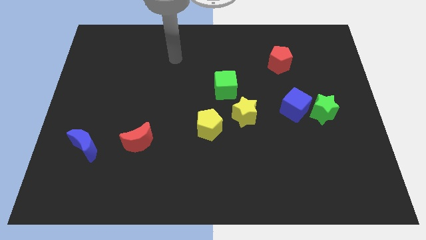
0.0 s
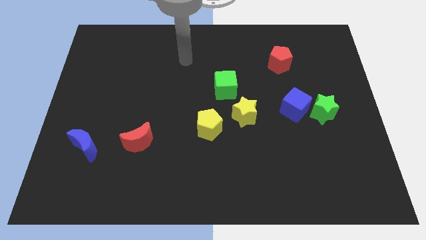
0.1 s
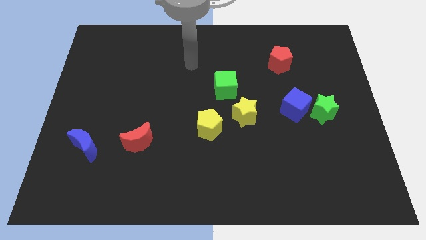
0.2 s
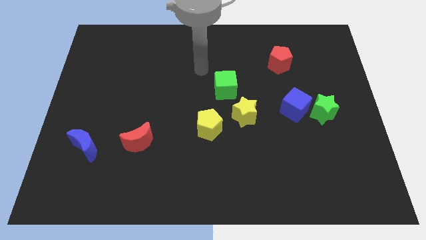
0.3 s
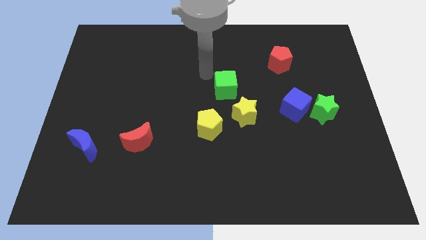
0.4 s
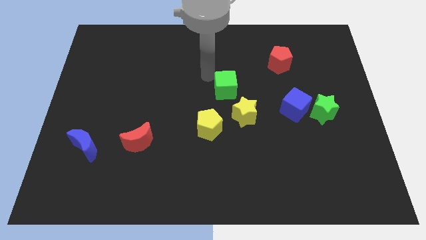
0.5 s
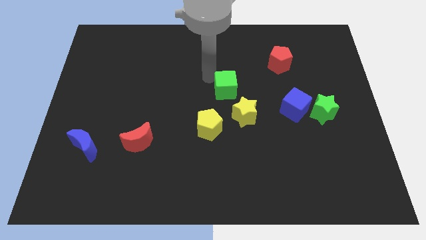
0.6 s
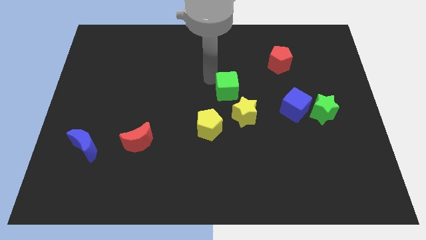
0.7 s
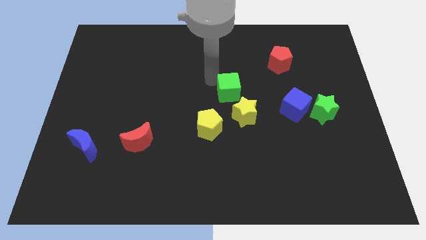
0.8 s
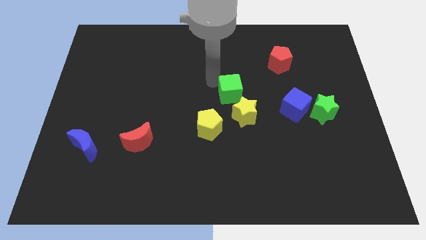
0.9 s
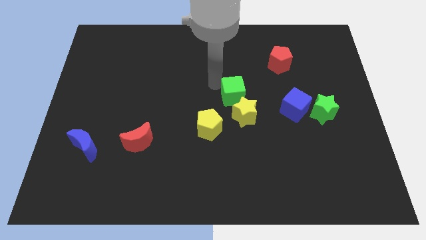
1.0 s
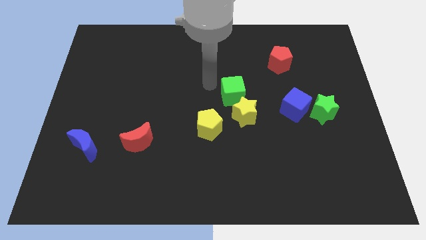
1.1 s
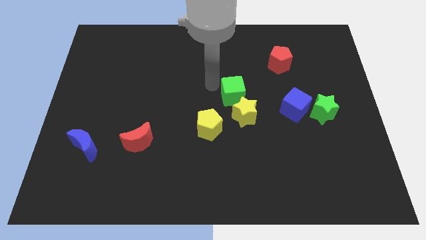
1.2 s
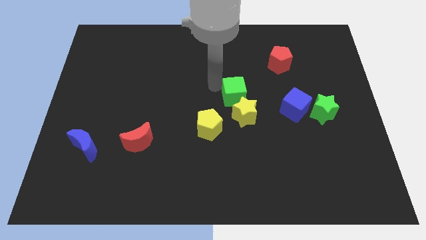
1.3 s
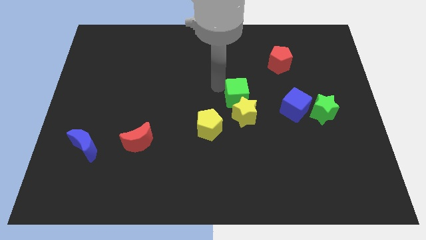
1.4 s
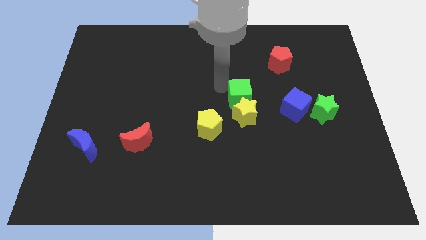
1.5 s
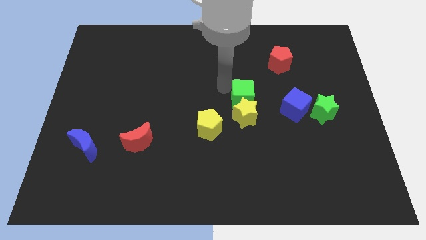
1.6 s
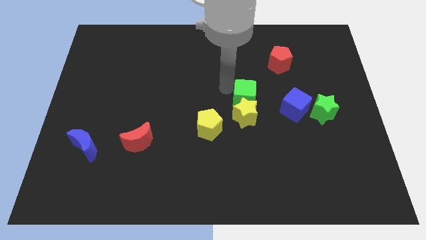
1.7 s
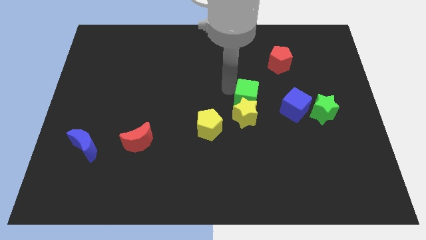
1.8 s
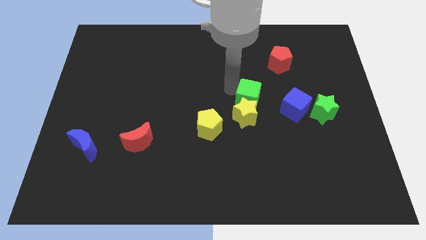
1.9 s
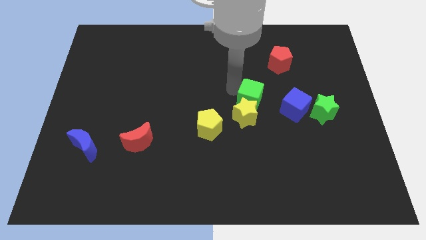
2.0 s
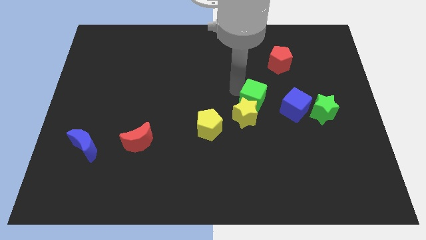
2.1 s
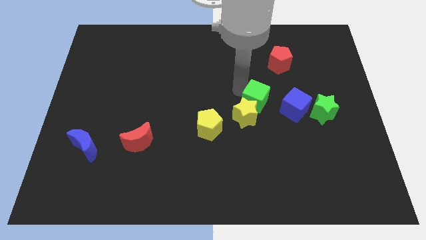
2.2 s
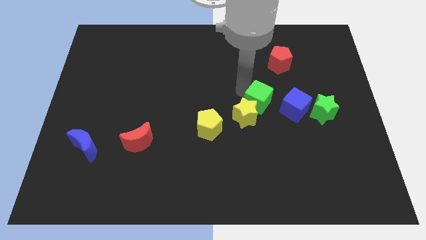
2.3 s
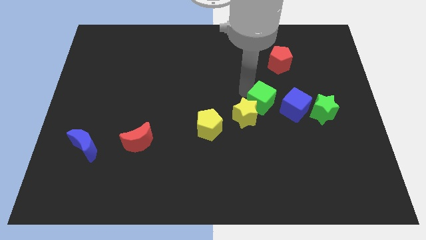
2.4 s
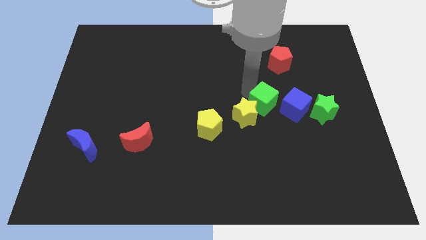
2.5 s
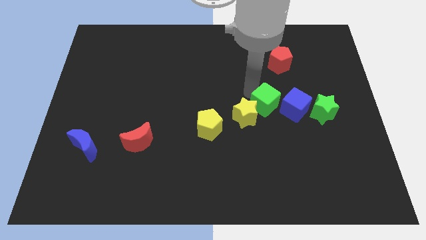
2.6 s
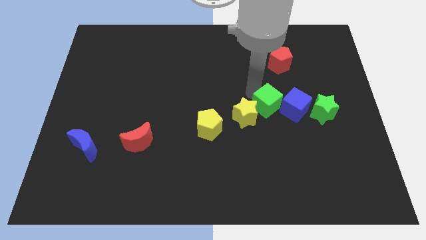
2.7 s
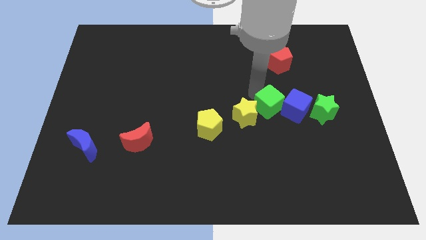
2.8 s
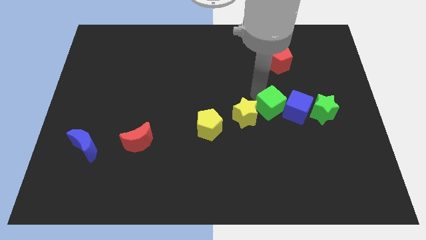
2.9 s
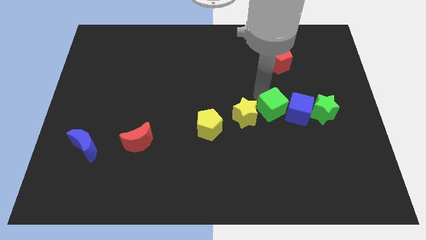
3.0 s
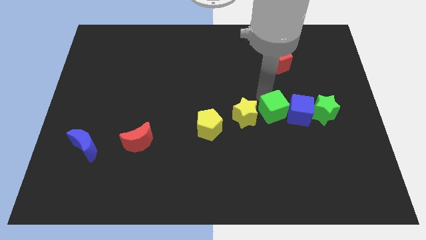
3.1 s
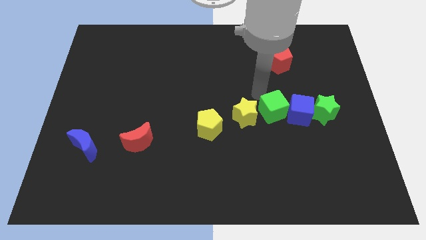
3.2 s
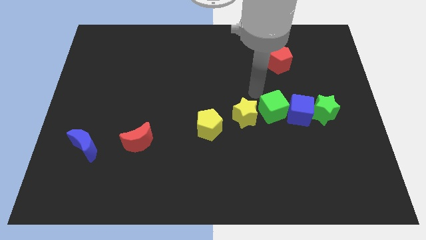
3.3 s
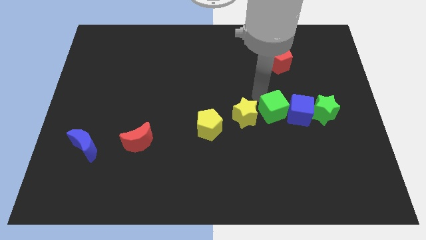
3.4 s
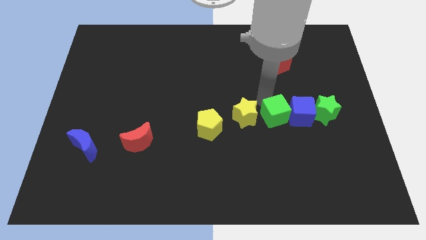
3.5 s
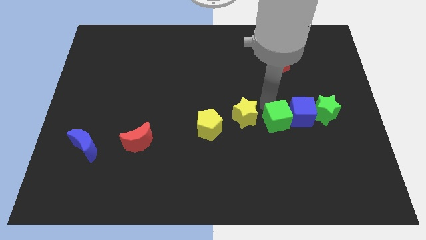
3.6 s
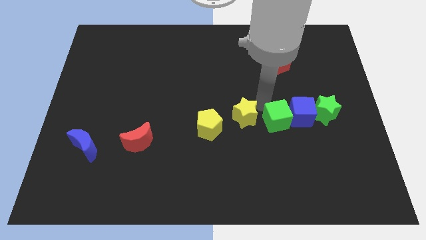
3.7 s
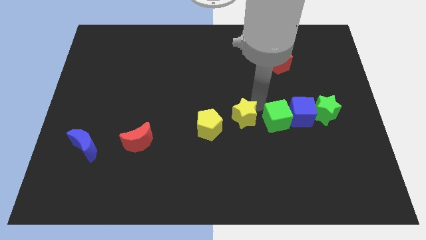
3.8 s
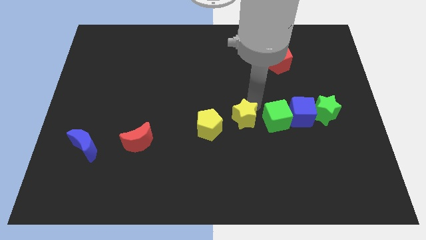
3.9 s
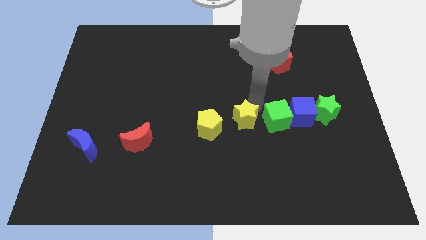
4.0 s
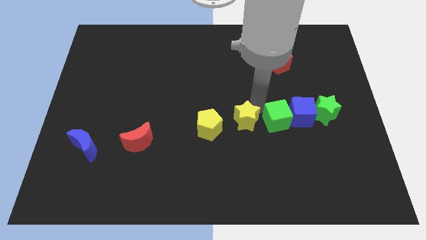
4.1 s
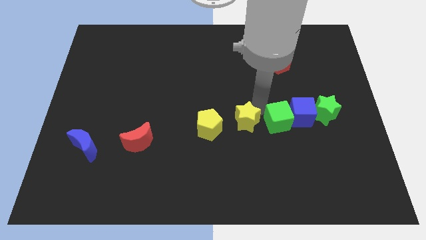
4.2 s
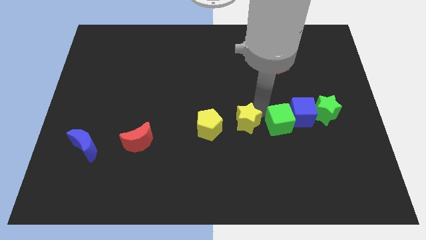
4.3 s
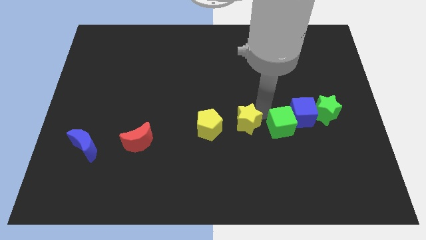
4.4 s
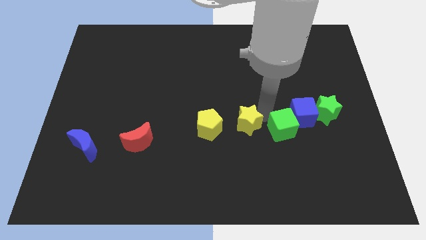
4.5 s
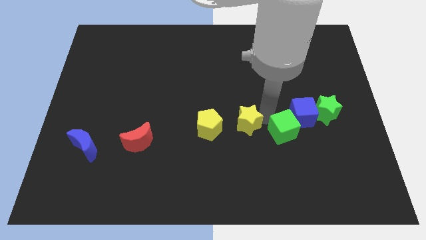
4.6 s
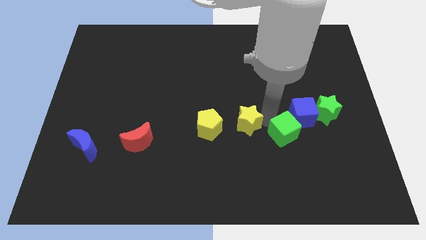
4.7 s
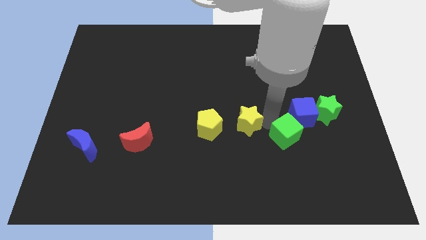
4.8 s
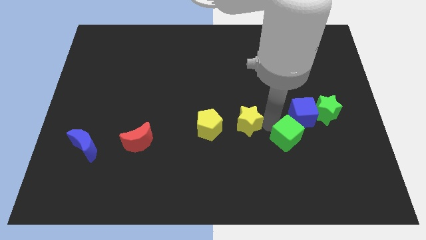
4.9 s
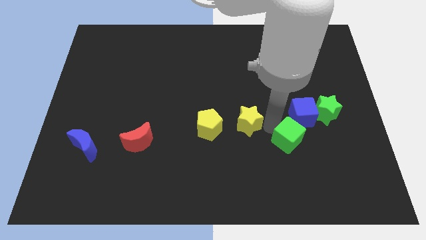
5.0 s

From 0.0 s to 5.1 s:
slide the green cube down and right

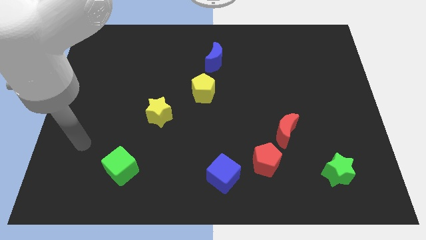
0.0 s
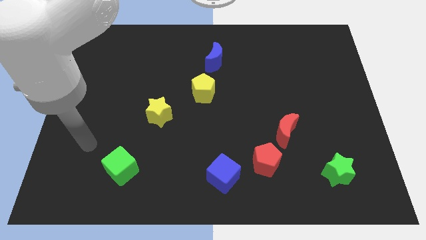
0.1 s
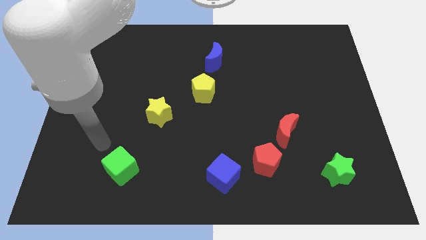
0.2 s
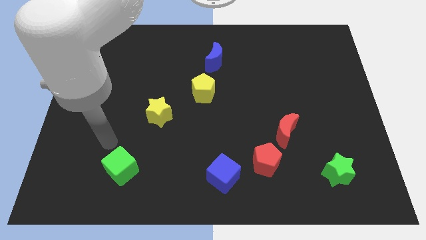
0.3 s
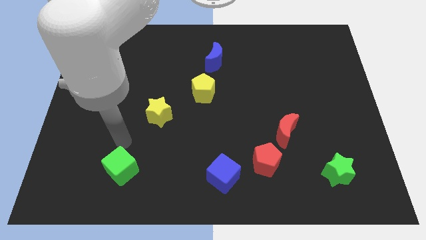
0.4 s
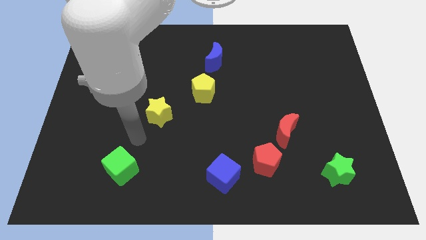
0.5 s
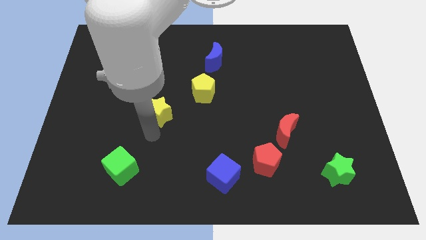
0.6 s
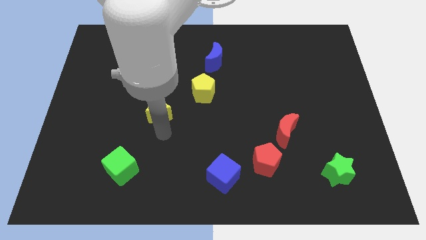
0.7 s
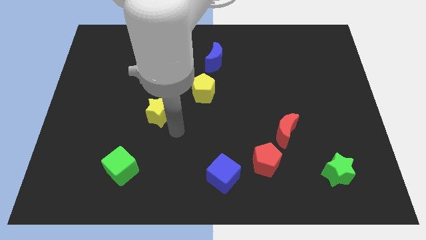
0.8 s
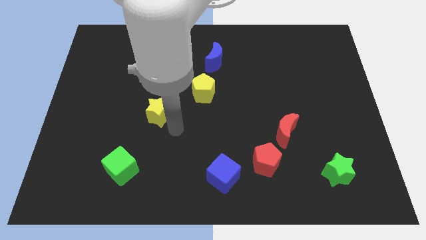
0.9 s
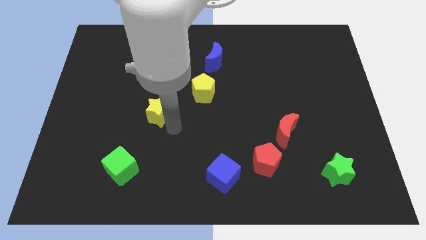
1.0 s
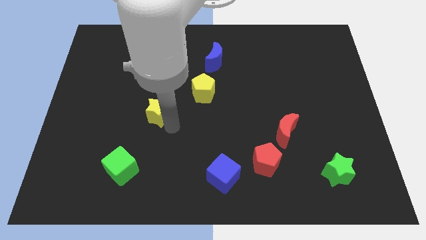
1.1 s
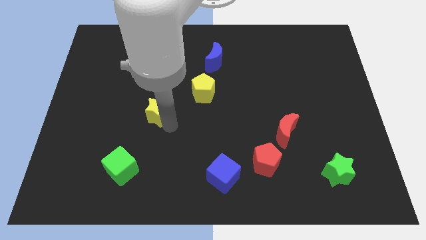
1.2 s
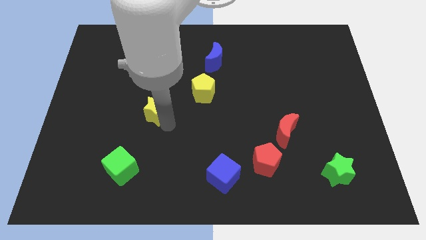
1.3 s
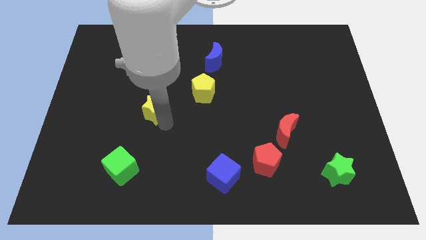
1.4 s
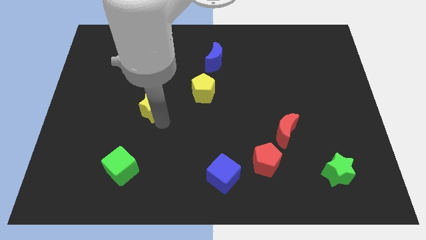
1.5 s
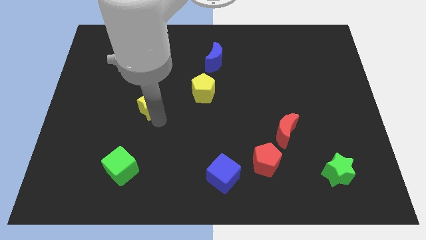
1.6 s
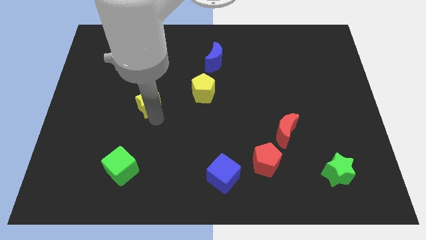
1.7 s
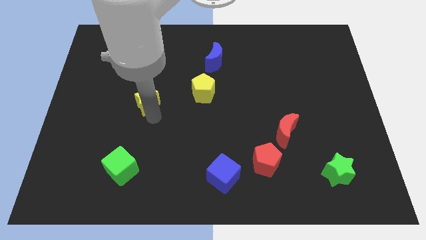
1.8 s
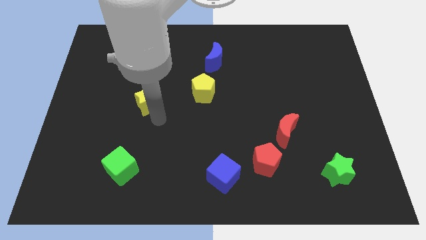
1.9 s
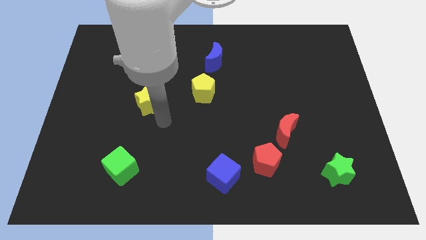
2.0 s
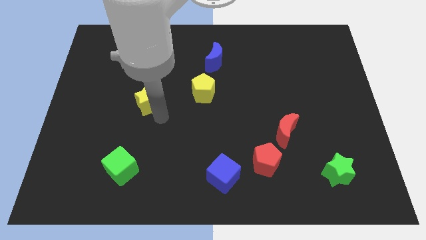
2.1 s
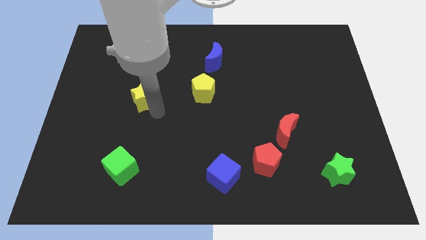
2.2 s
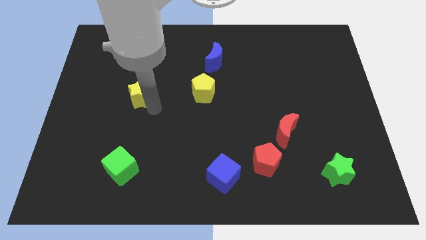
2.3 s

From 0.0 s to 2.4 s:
move the yellow star up and to the left diagonally somewhat

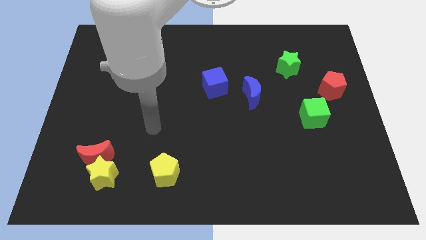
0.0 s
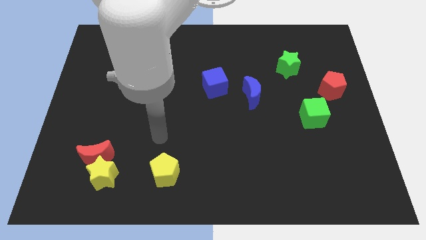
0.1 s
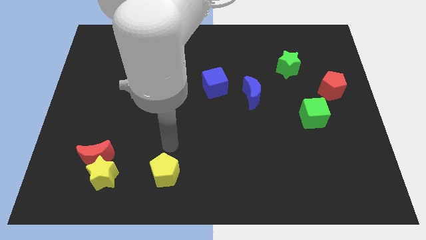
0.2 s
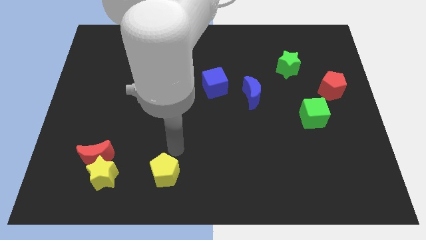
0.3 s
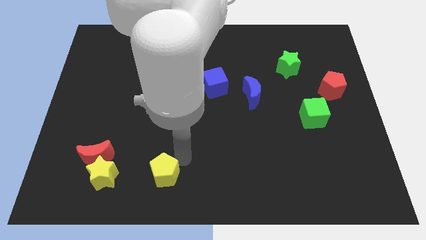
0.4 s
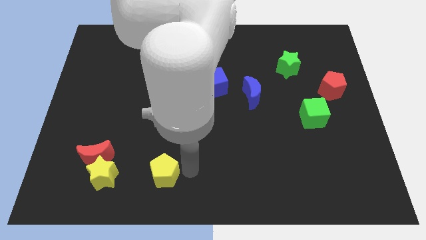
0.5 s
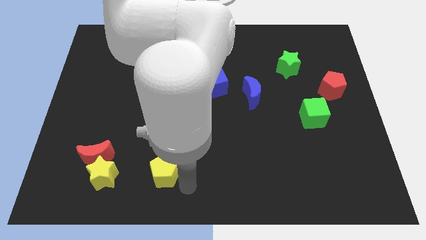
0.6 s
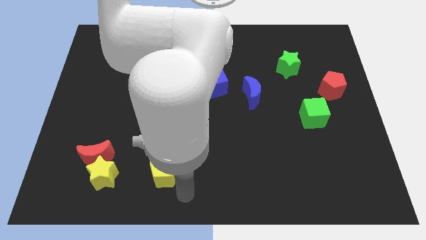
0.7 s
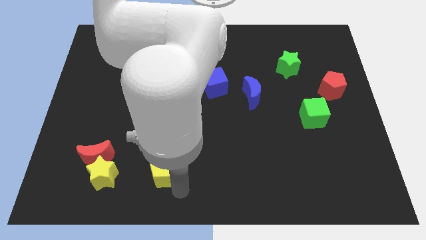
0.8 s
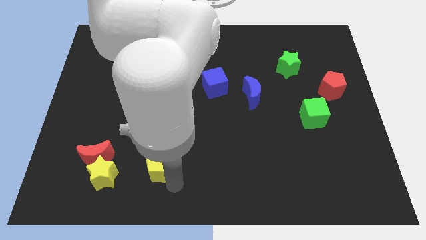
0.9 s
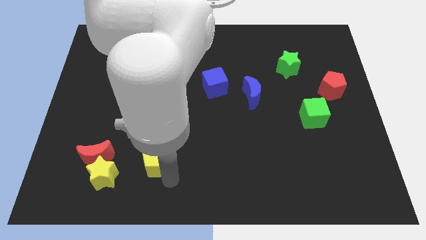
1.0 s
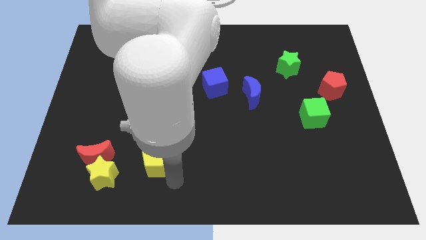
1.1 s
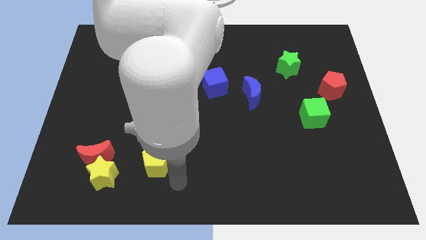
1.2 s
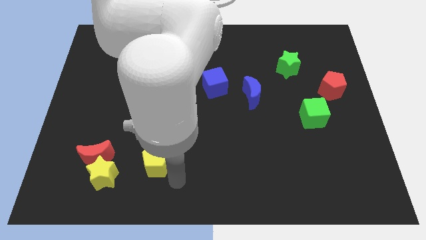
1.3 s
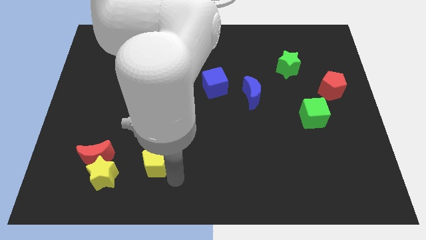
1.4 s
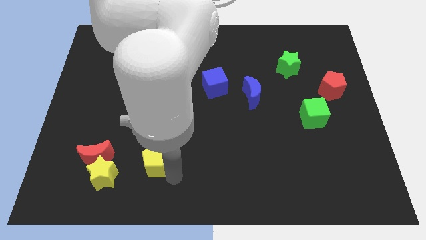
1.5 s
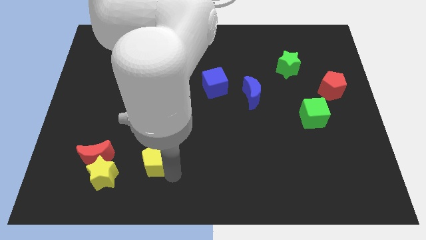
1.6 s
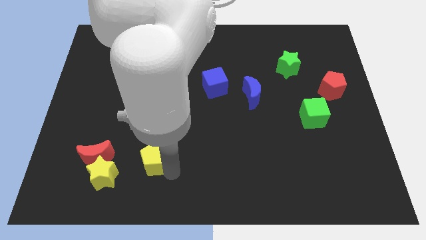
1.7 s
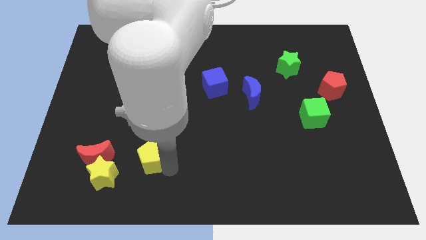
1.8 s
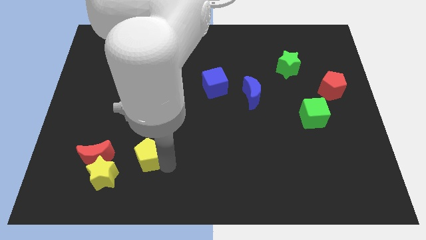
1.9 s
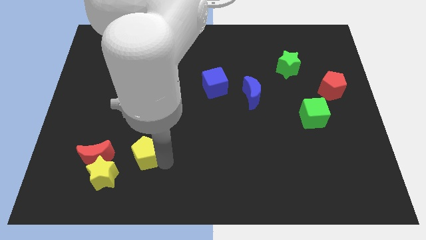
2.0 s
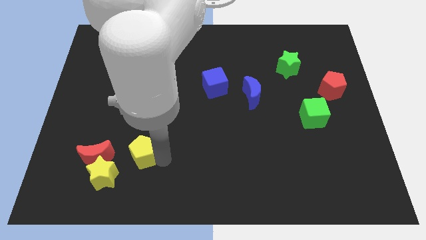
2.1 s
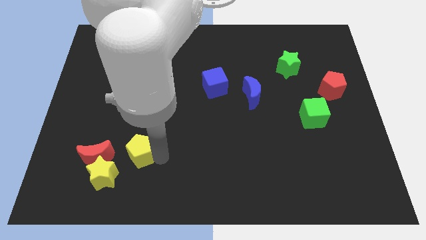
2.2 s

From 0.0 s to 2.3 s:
slide the yellow pentagon somewhat upwards and then left
